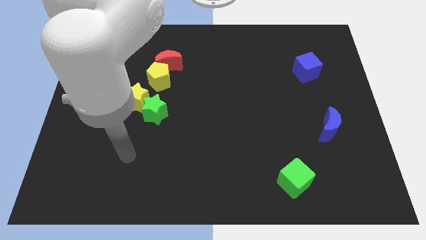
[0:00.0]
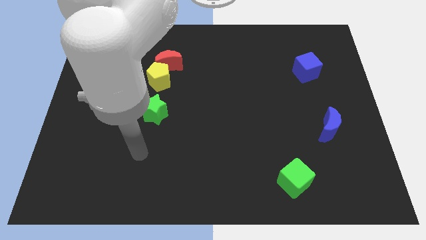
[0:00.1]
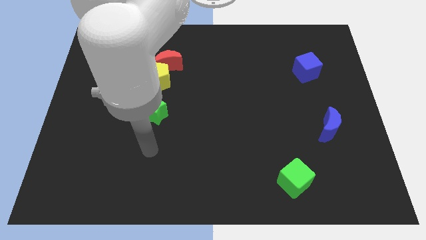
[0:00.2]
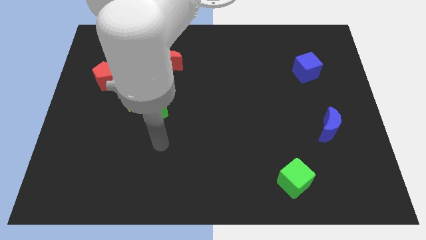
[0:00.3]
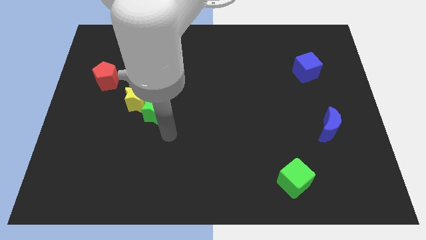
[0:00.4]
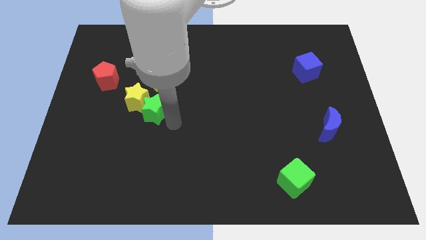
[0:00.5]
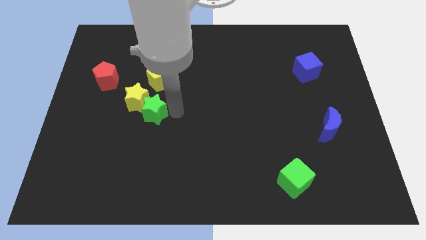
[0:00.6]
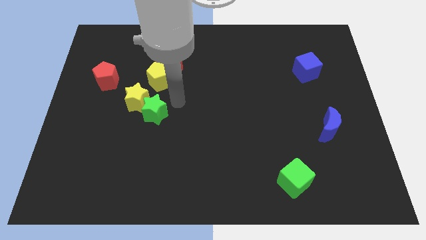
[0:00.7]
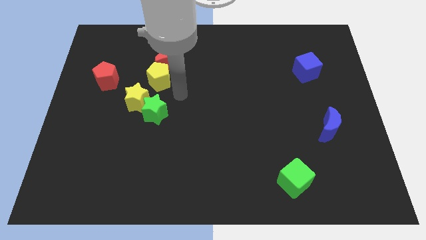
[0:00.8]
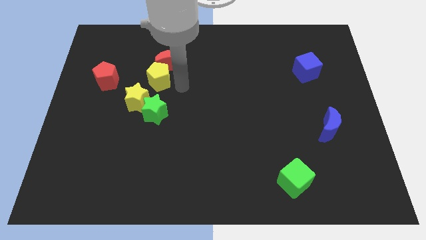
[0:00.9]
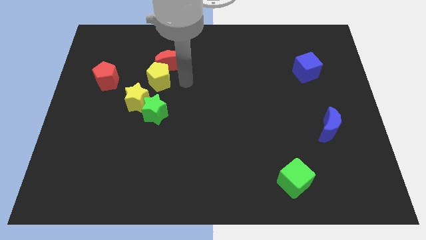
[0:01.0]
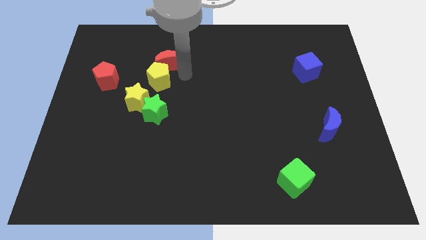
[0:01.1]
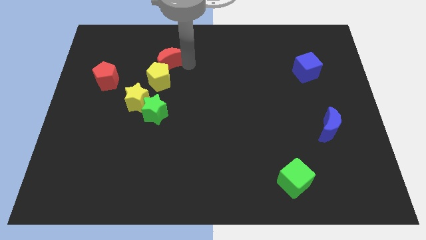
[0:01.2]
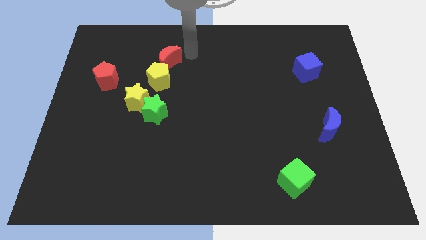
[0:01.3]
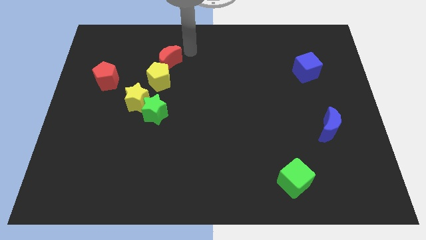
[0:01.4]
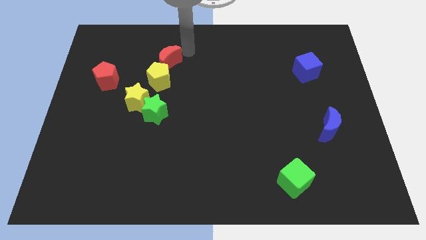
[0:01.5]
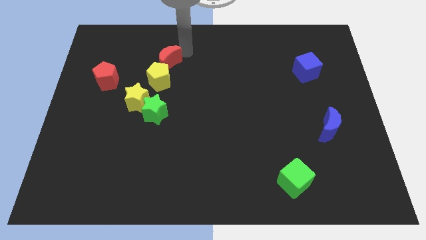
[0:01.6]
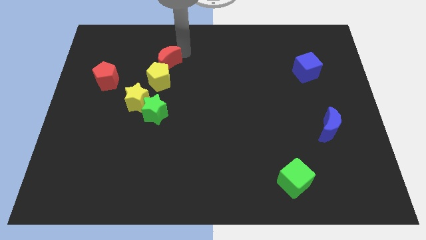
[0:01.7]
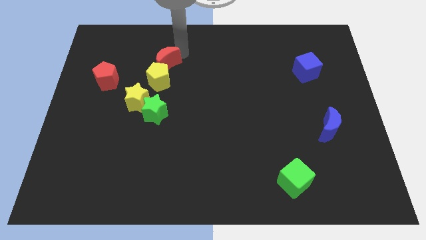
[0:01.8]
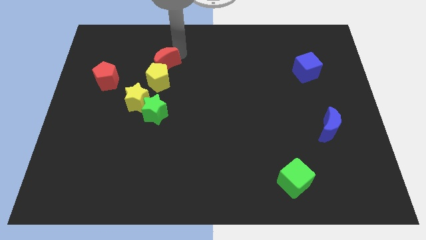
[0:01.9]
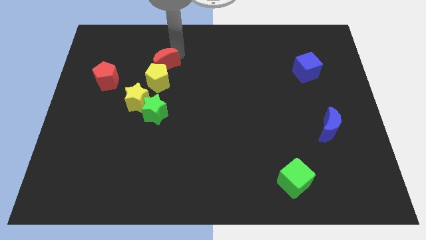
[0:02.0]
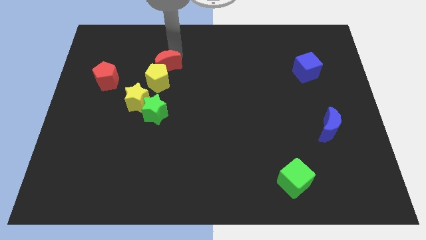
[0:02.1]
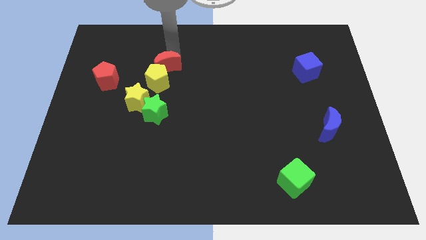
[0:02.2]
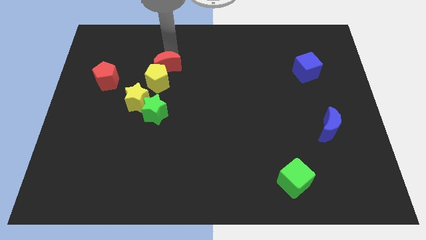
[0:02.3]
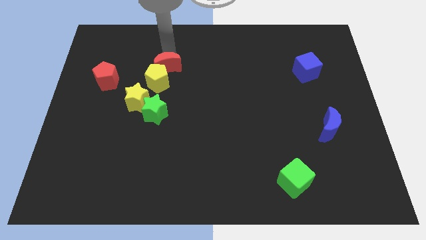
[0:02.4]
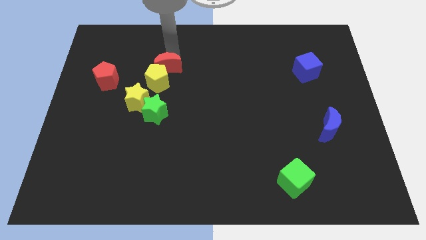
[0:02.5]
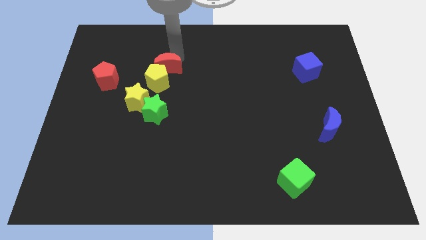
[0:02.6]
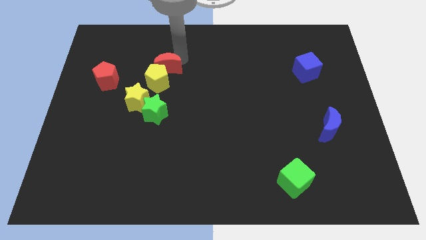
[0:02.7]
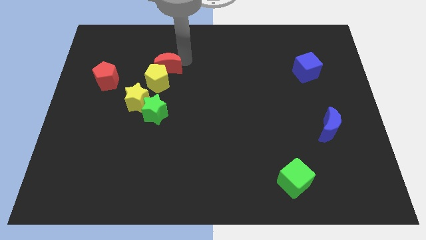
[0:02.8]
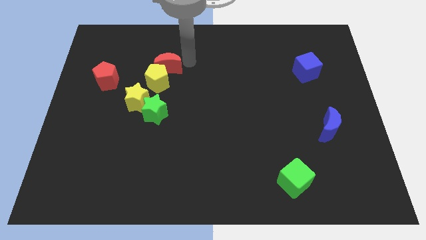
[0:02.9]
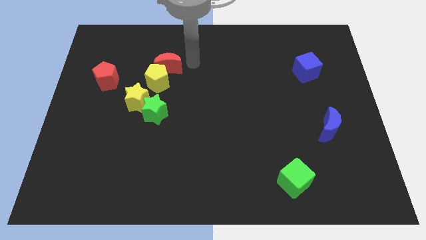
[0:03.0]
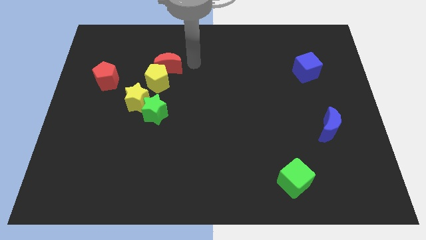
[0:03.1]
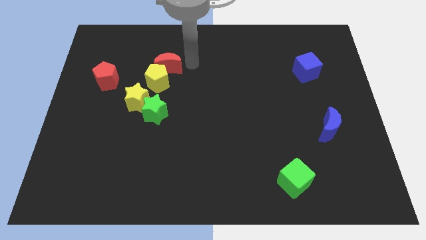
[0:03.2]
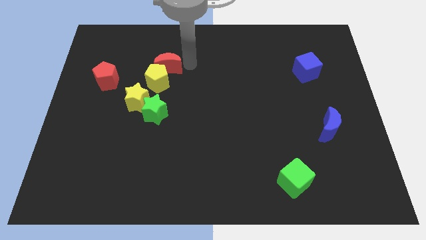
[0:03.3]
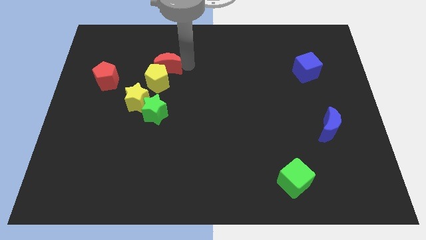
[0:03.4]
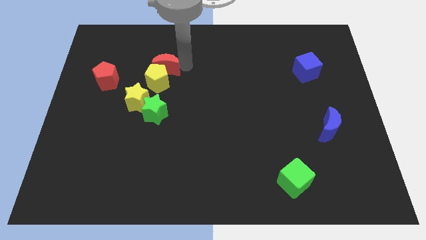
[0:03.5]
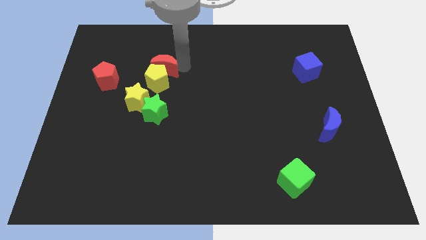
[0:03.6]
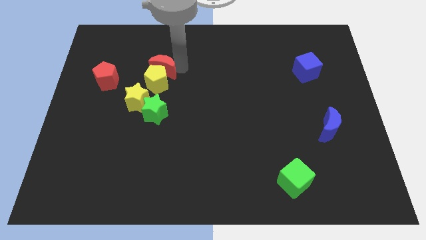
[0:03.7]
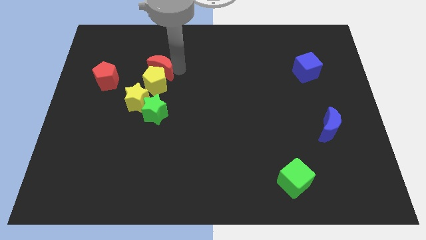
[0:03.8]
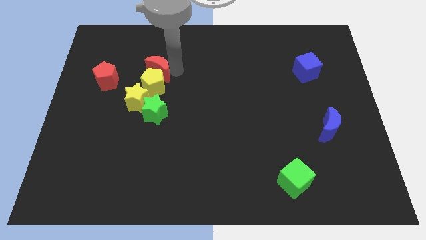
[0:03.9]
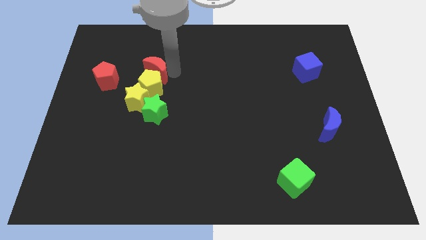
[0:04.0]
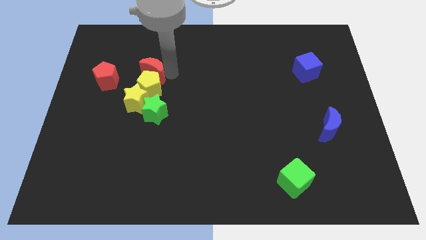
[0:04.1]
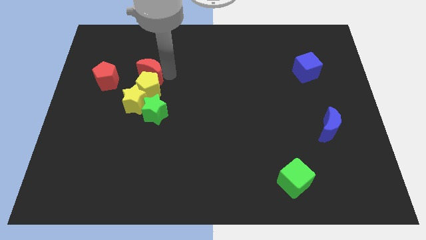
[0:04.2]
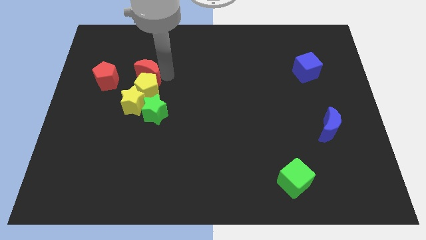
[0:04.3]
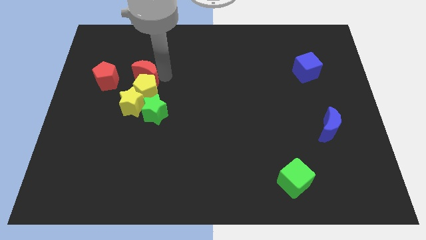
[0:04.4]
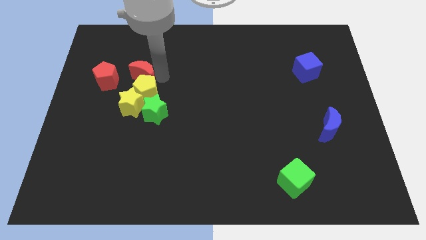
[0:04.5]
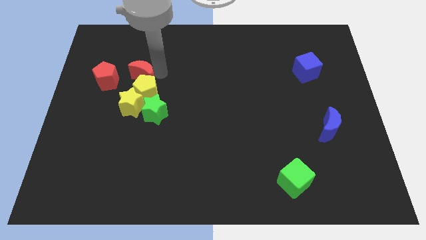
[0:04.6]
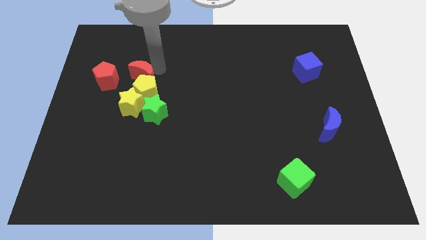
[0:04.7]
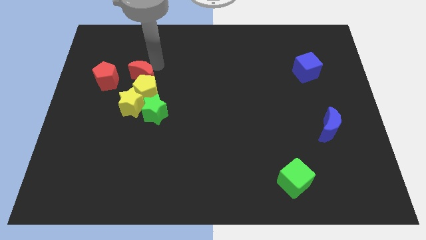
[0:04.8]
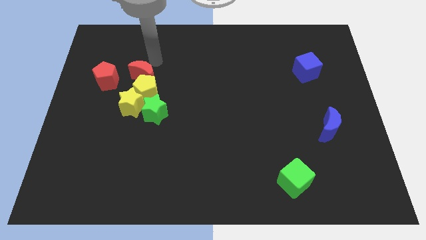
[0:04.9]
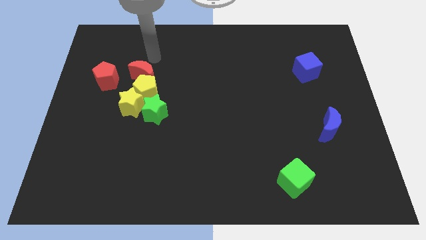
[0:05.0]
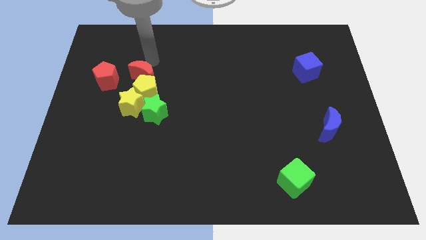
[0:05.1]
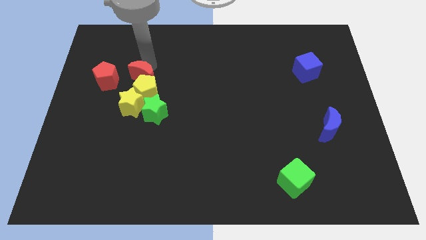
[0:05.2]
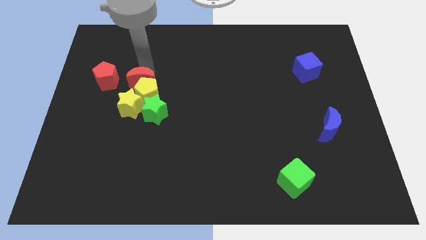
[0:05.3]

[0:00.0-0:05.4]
move the red moon to the top left of the green star

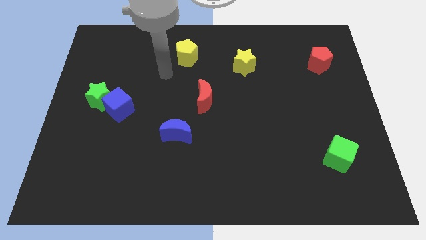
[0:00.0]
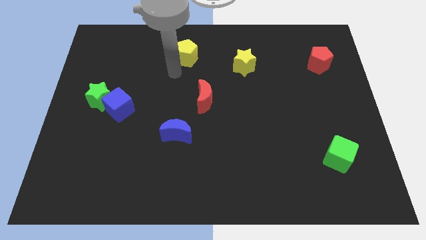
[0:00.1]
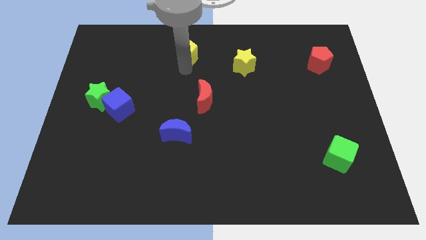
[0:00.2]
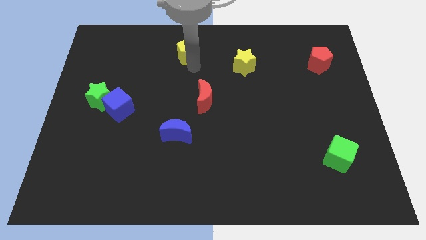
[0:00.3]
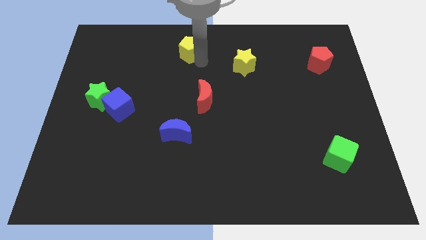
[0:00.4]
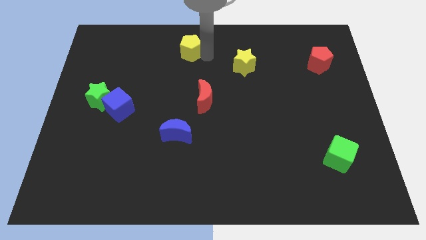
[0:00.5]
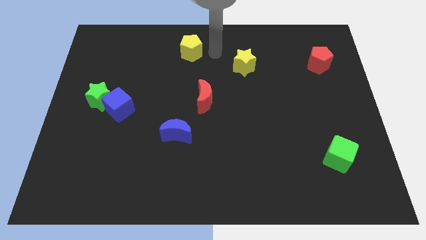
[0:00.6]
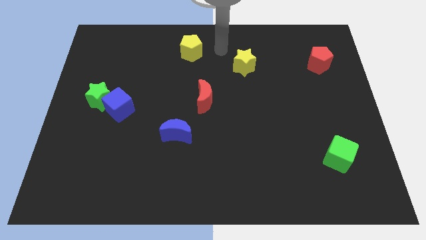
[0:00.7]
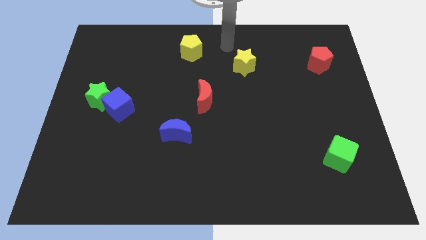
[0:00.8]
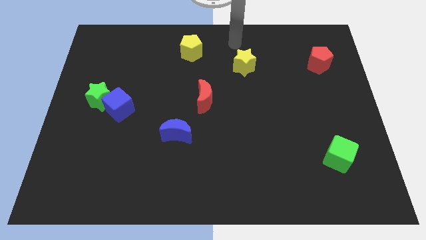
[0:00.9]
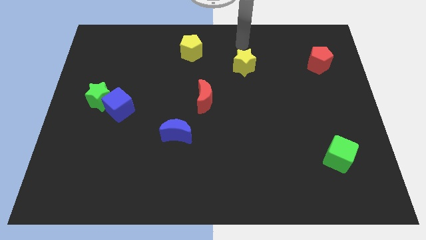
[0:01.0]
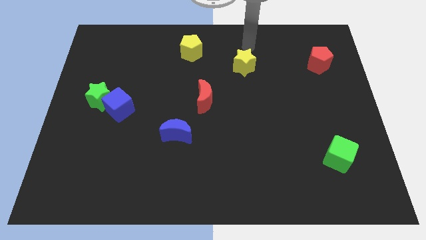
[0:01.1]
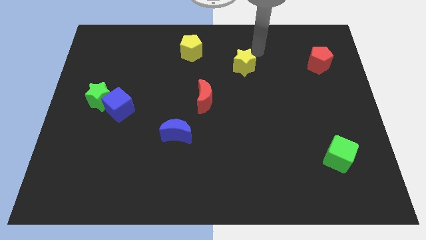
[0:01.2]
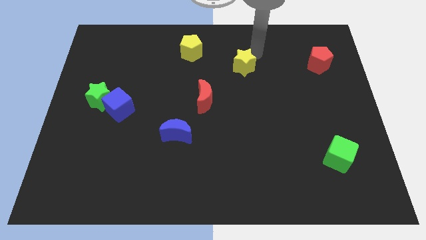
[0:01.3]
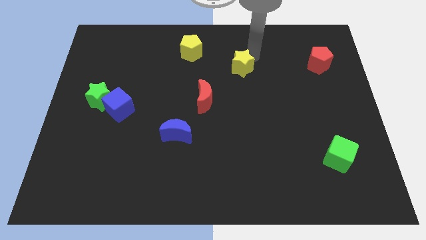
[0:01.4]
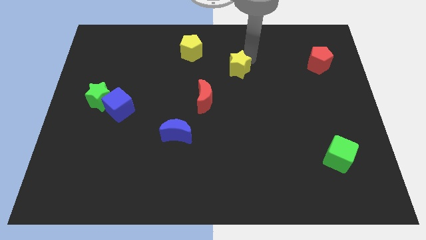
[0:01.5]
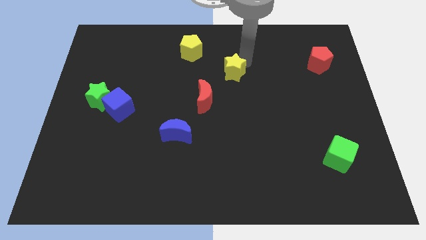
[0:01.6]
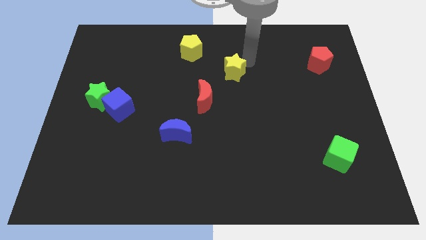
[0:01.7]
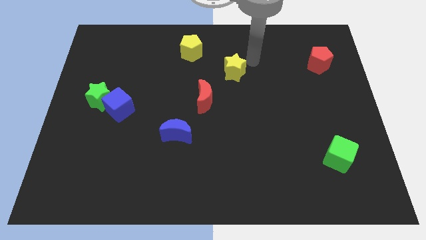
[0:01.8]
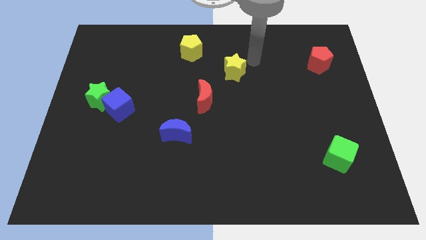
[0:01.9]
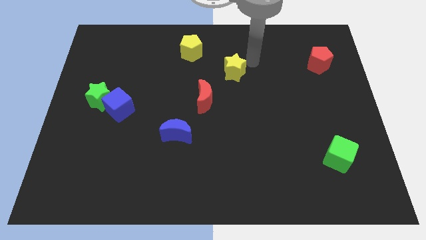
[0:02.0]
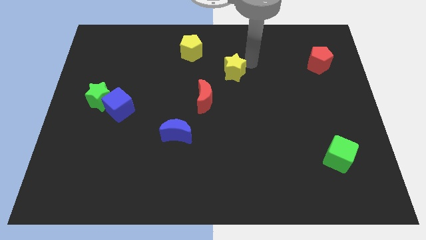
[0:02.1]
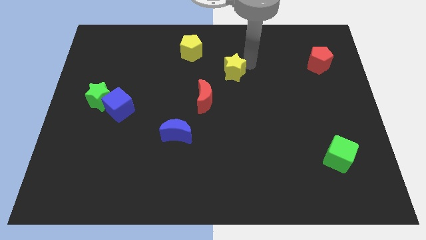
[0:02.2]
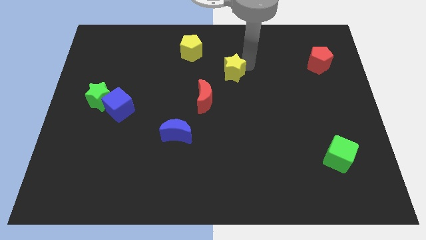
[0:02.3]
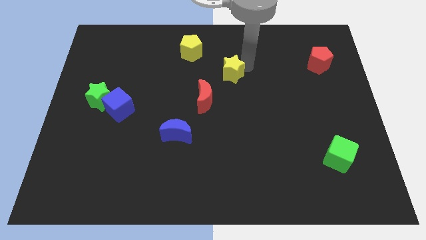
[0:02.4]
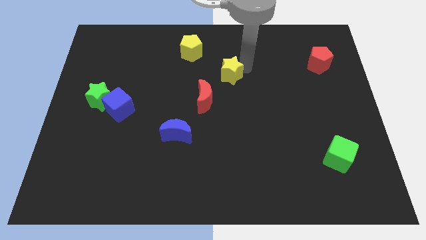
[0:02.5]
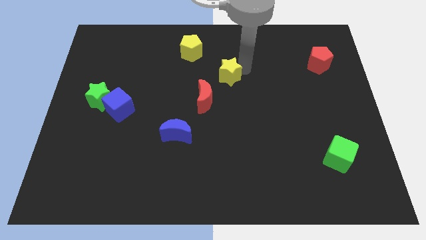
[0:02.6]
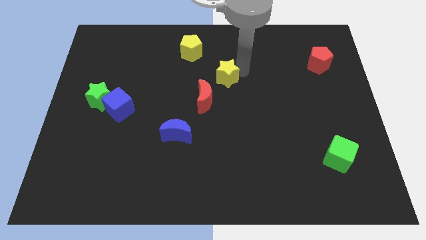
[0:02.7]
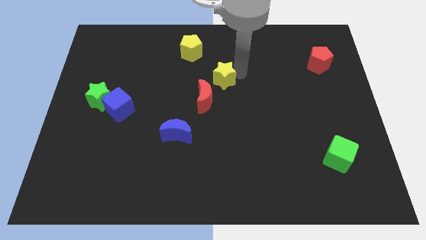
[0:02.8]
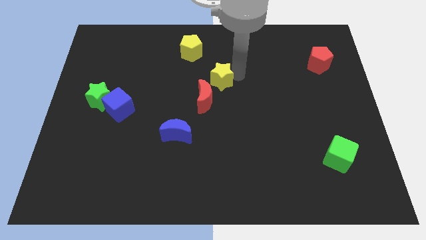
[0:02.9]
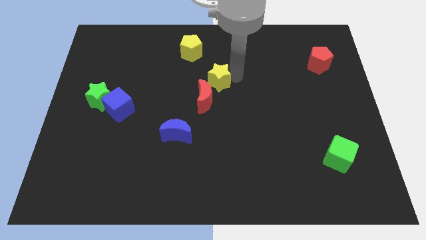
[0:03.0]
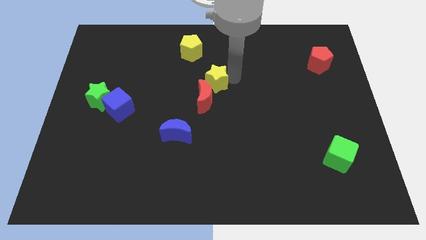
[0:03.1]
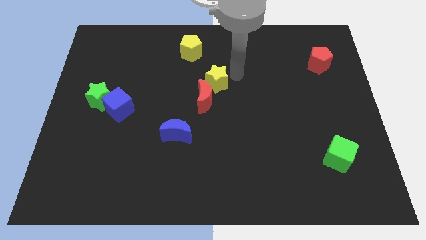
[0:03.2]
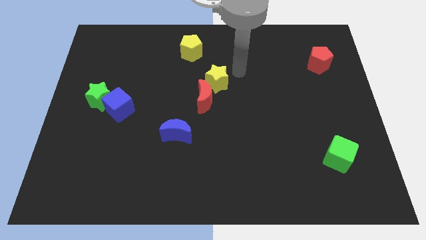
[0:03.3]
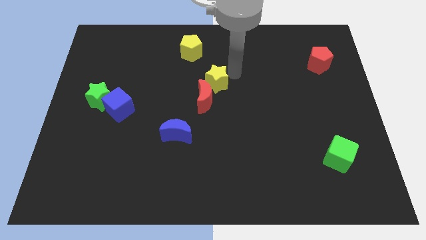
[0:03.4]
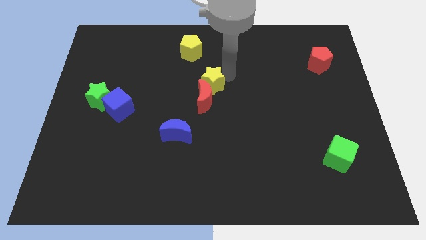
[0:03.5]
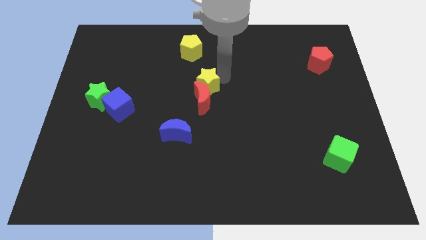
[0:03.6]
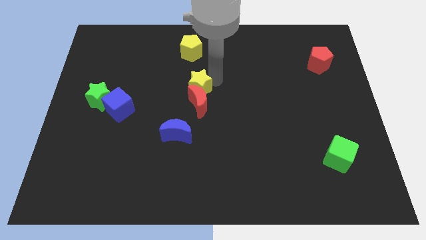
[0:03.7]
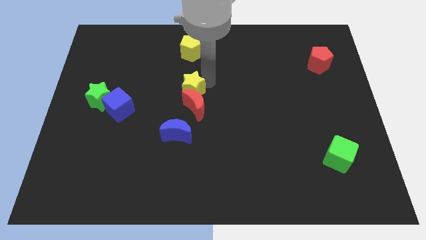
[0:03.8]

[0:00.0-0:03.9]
put the yellow star above the blue moon
